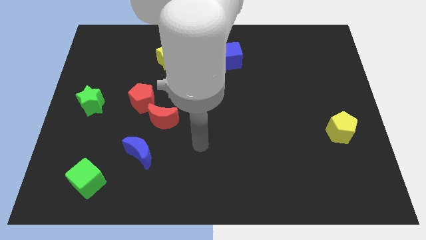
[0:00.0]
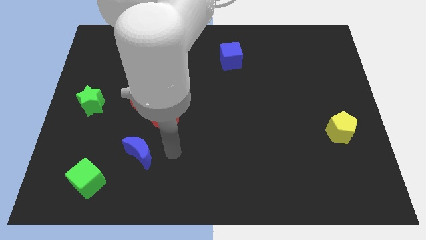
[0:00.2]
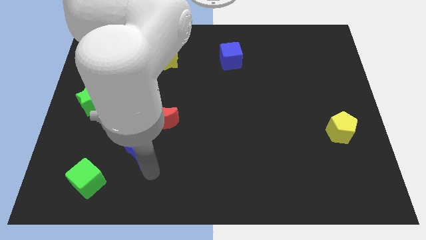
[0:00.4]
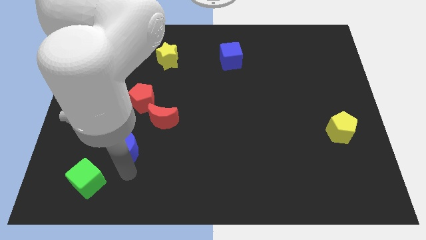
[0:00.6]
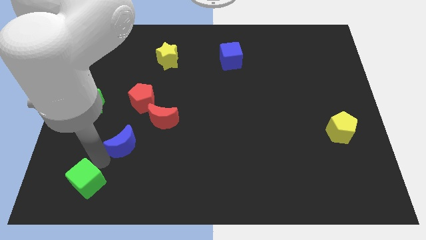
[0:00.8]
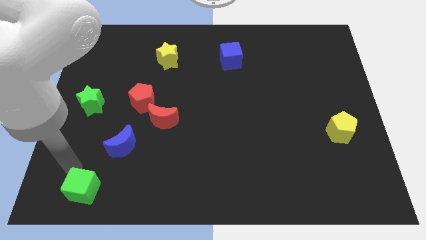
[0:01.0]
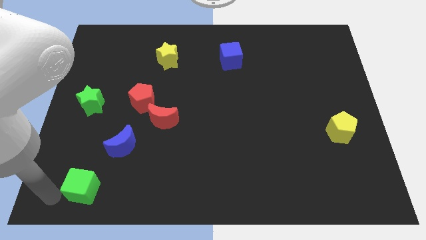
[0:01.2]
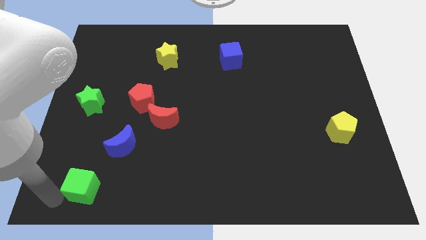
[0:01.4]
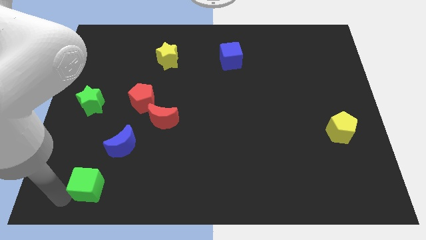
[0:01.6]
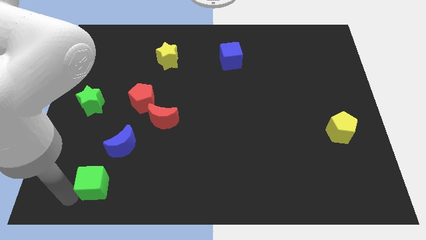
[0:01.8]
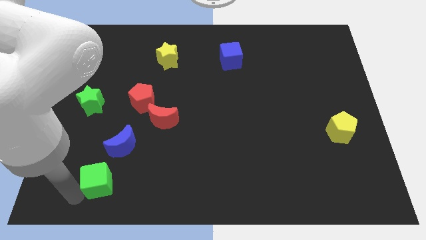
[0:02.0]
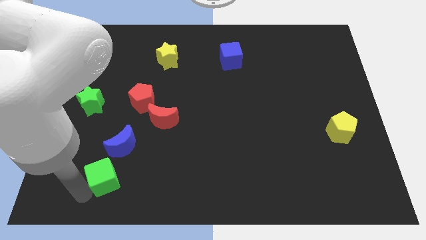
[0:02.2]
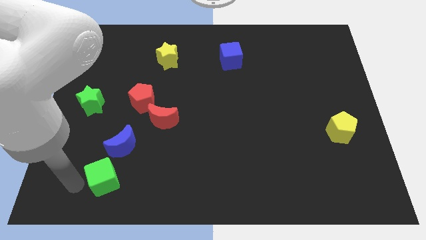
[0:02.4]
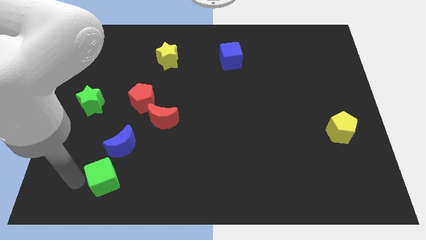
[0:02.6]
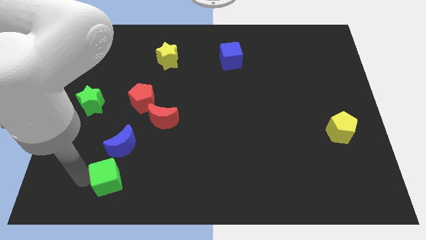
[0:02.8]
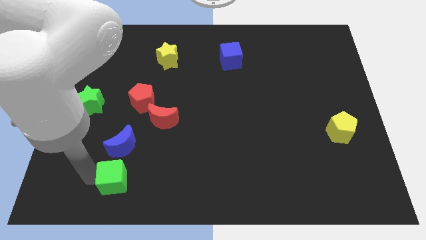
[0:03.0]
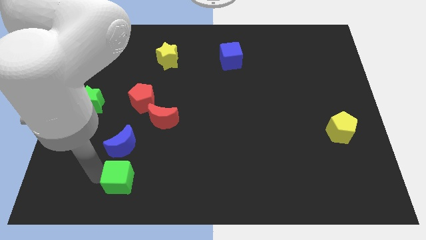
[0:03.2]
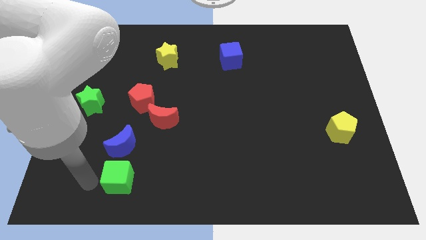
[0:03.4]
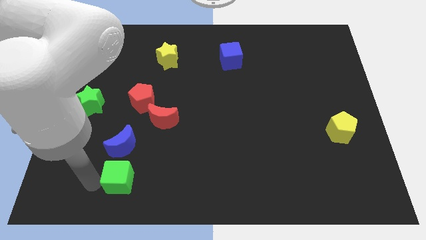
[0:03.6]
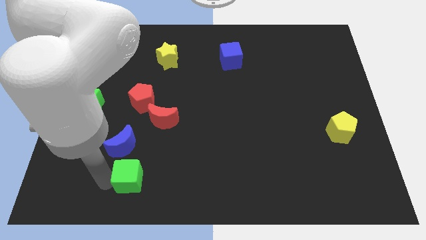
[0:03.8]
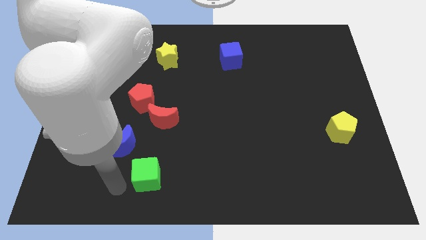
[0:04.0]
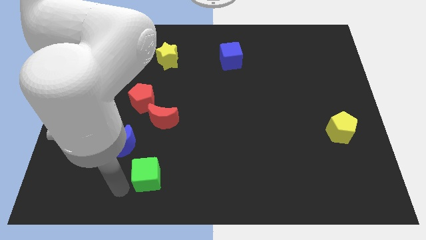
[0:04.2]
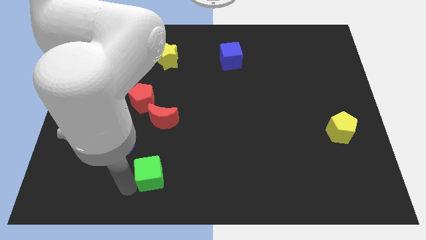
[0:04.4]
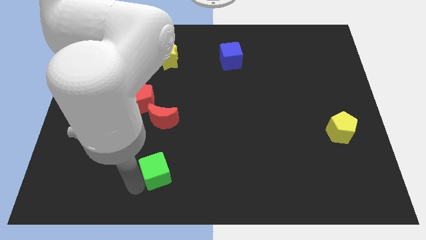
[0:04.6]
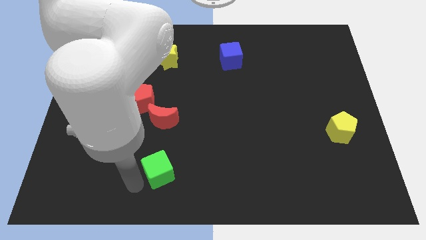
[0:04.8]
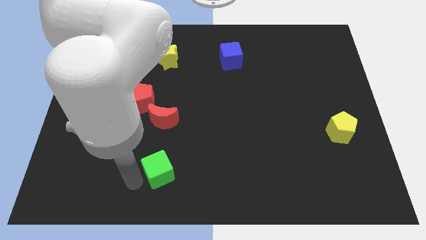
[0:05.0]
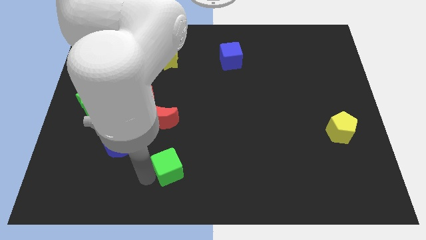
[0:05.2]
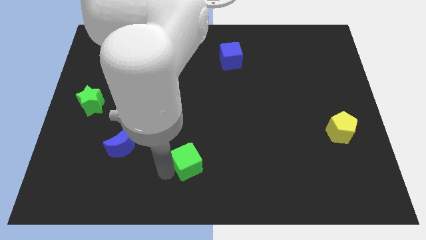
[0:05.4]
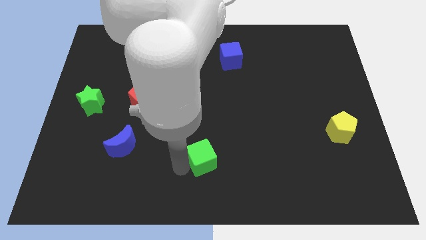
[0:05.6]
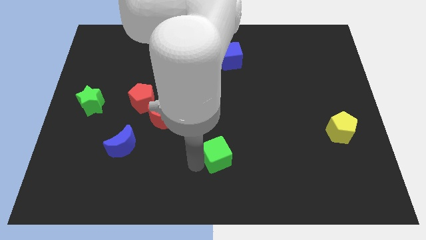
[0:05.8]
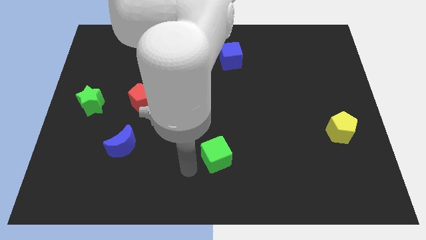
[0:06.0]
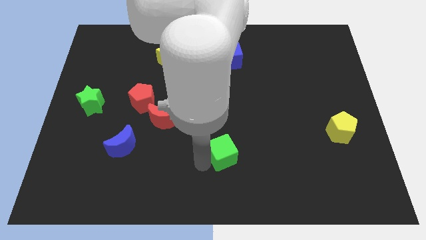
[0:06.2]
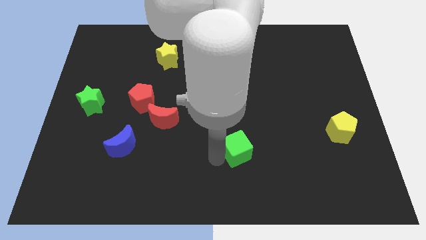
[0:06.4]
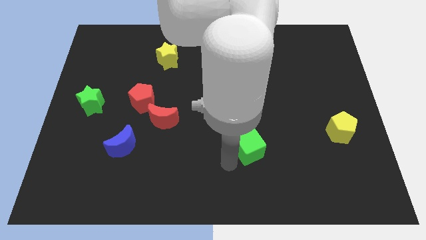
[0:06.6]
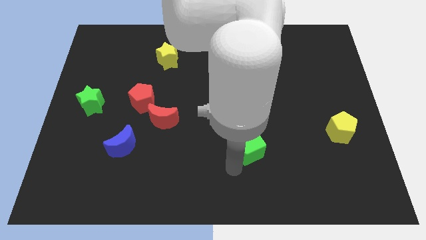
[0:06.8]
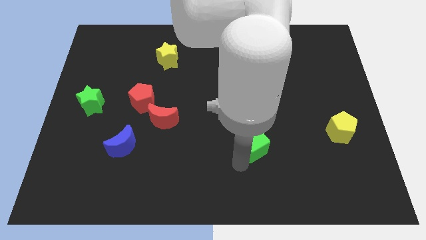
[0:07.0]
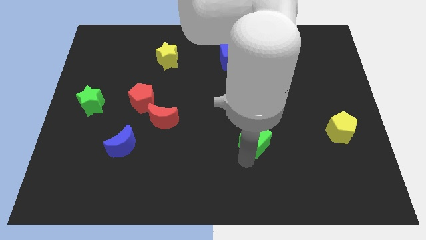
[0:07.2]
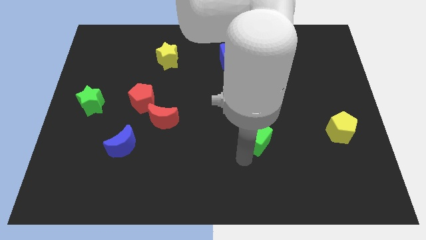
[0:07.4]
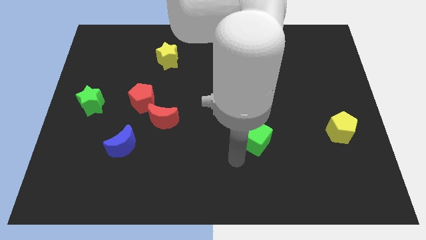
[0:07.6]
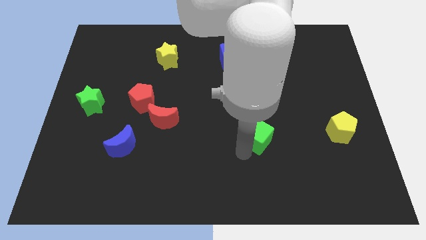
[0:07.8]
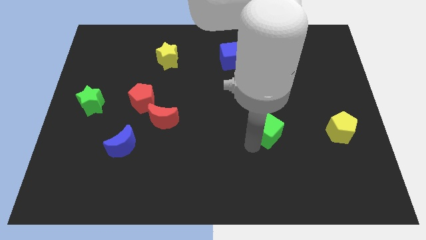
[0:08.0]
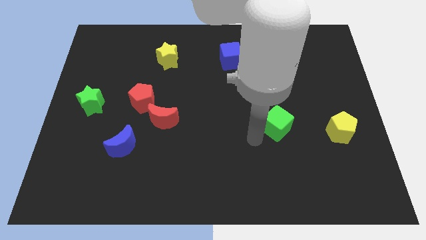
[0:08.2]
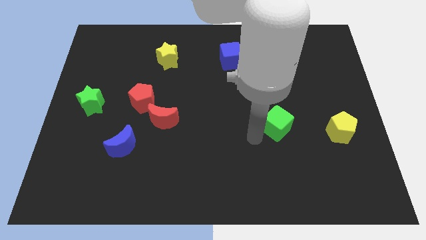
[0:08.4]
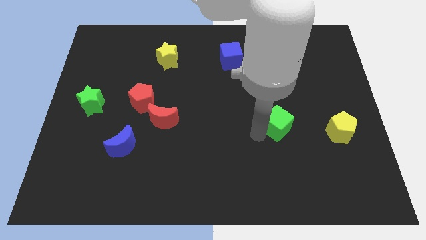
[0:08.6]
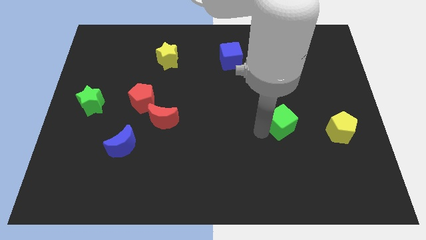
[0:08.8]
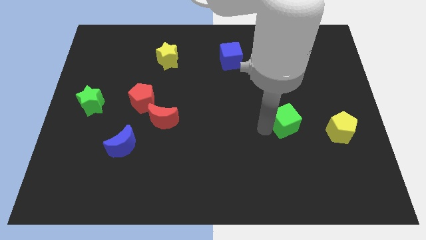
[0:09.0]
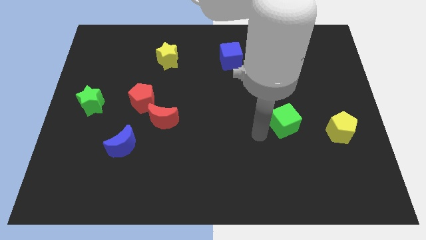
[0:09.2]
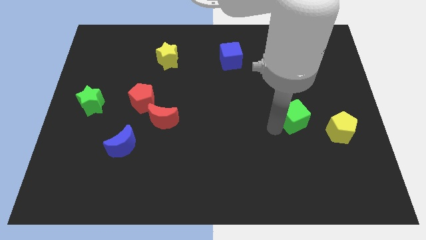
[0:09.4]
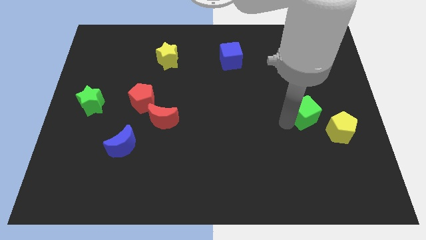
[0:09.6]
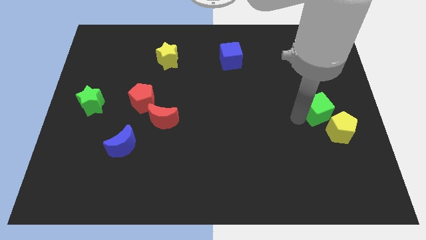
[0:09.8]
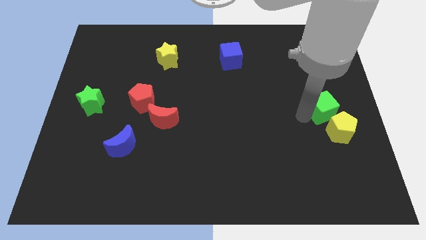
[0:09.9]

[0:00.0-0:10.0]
move the green cube to the right side

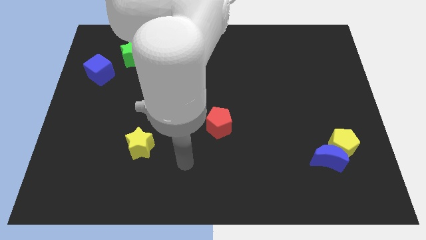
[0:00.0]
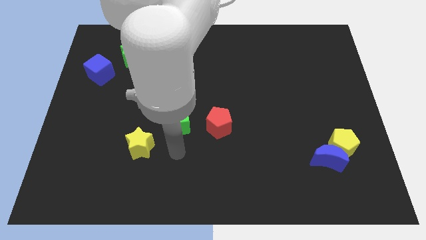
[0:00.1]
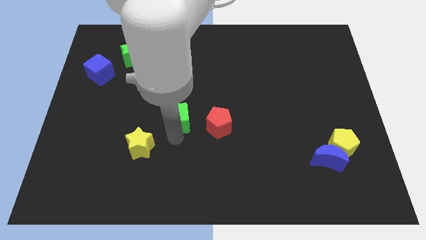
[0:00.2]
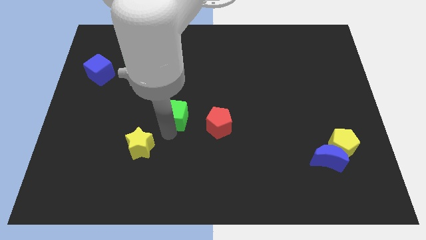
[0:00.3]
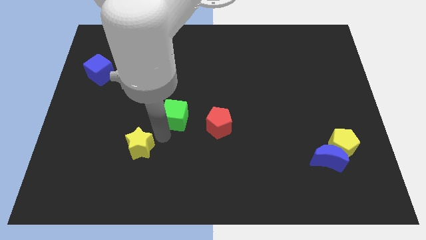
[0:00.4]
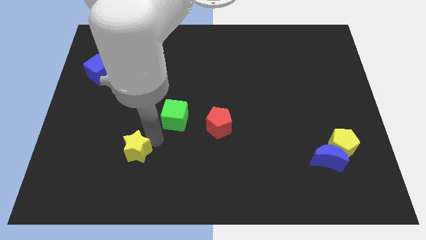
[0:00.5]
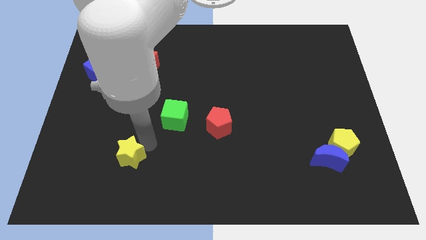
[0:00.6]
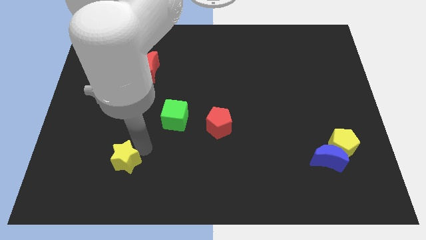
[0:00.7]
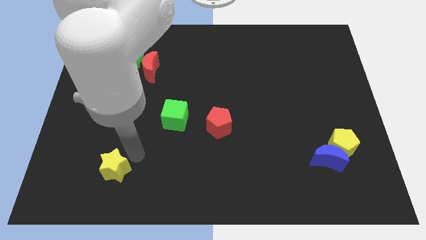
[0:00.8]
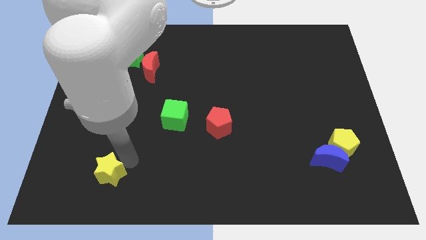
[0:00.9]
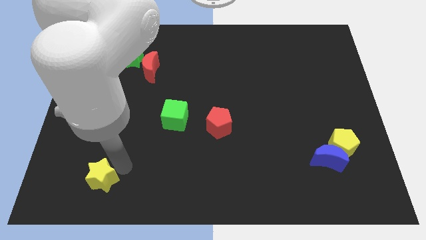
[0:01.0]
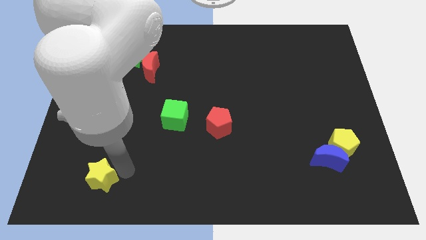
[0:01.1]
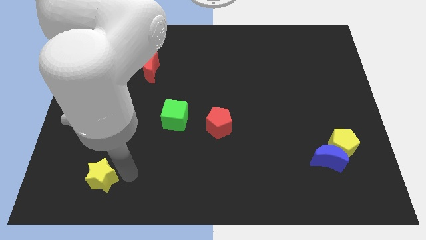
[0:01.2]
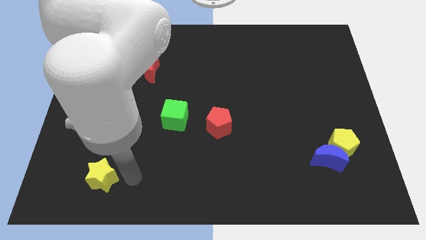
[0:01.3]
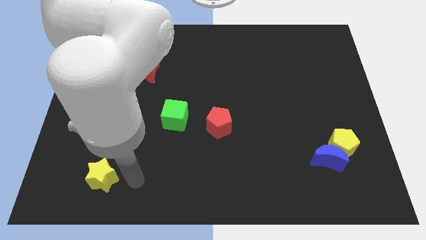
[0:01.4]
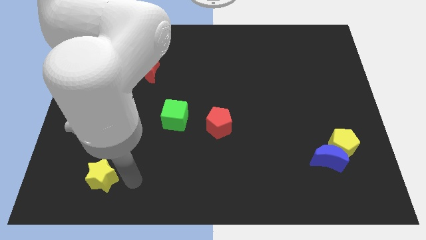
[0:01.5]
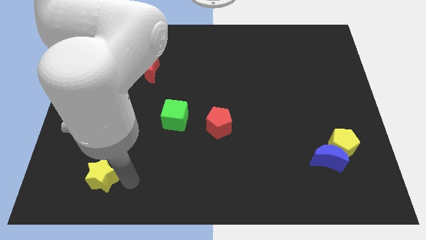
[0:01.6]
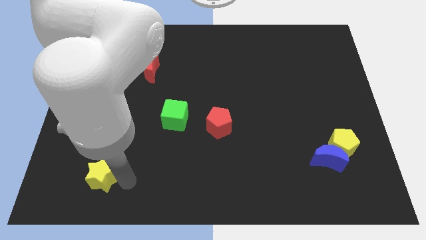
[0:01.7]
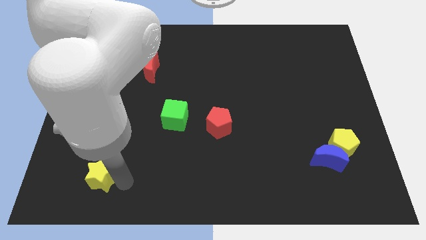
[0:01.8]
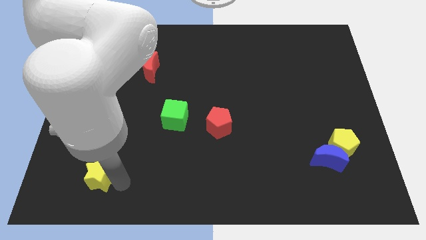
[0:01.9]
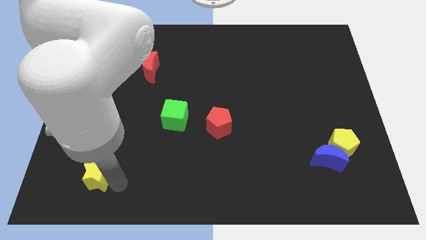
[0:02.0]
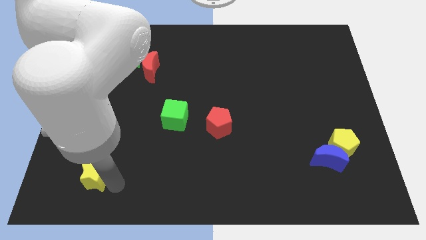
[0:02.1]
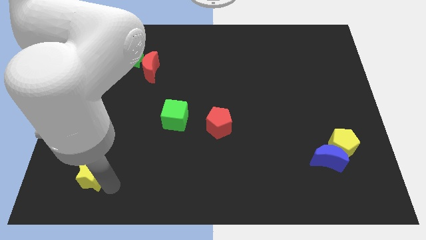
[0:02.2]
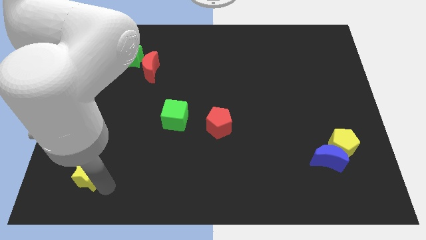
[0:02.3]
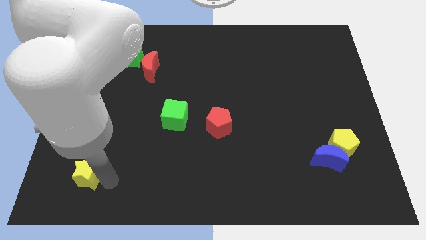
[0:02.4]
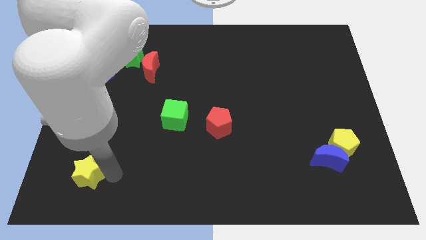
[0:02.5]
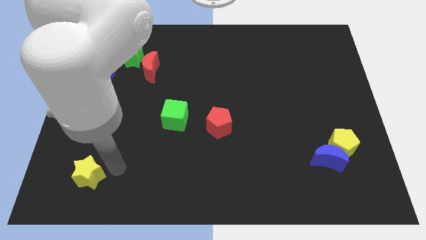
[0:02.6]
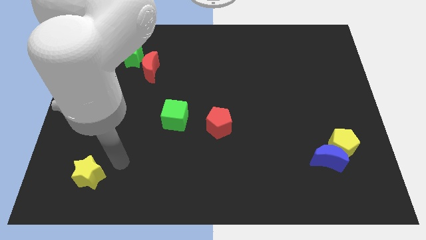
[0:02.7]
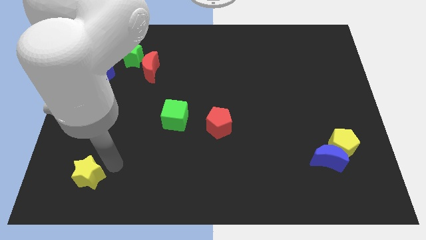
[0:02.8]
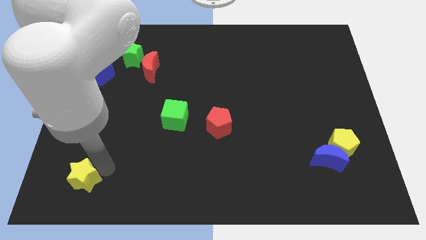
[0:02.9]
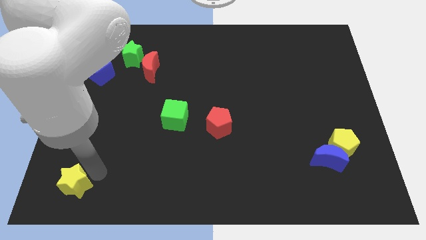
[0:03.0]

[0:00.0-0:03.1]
move the yellow star to the bottom left
